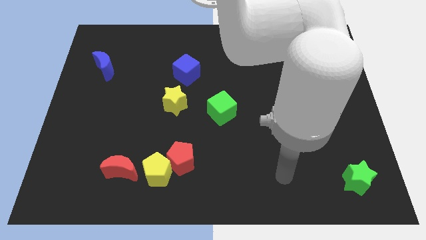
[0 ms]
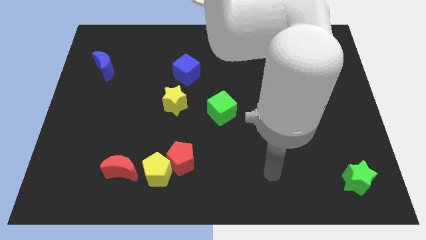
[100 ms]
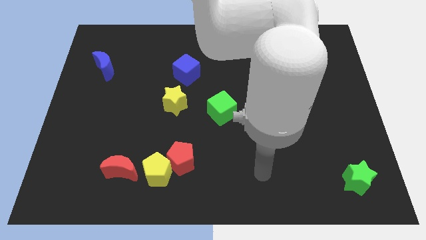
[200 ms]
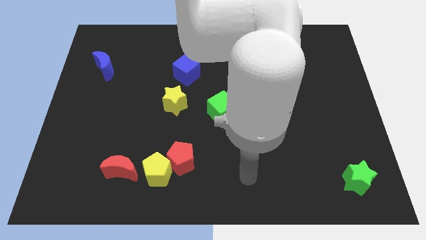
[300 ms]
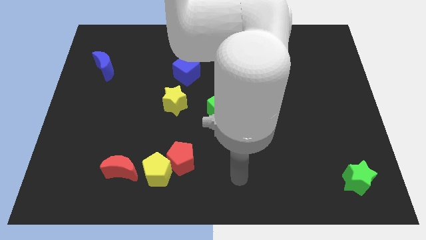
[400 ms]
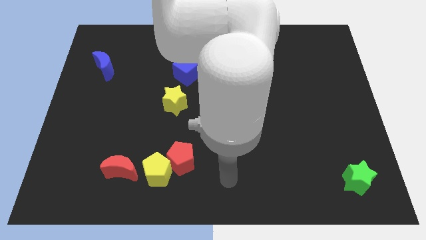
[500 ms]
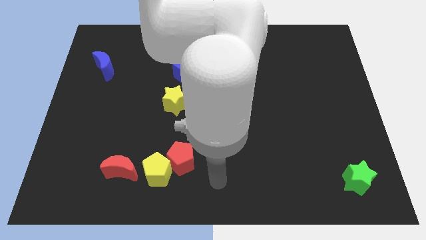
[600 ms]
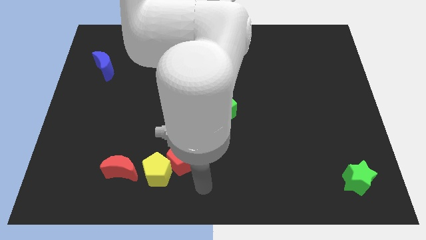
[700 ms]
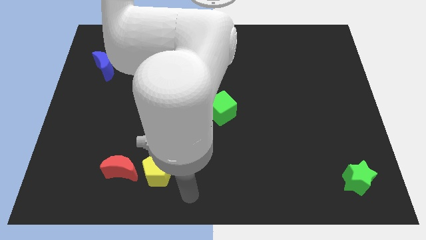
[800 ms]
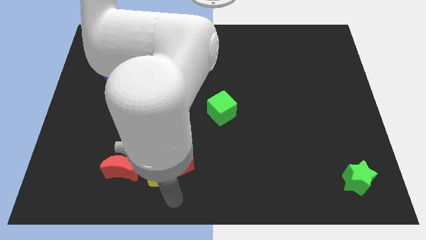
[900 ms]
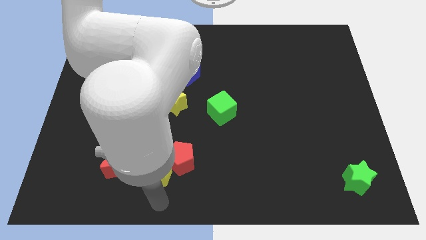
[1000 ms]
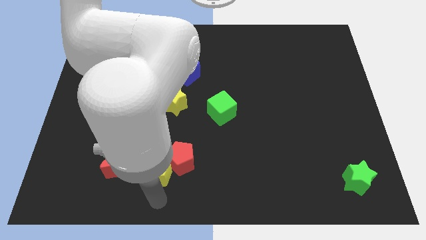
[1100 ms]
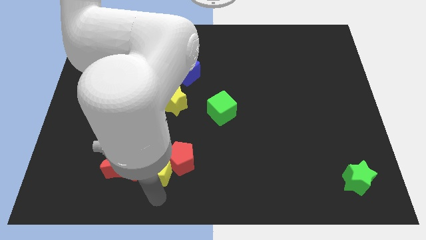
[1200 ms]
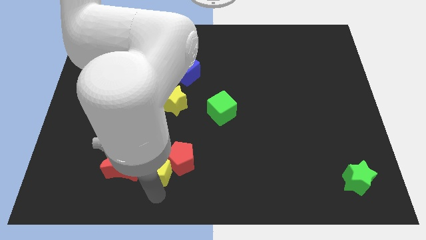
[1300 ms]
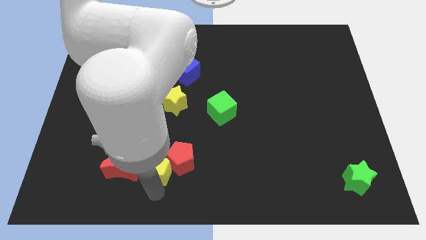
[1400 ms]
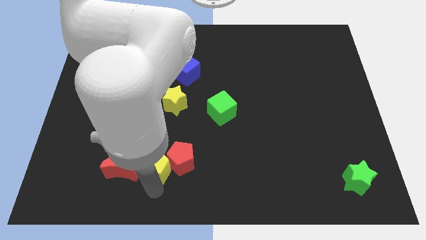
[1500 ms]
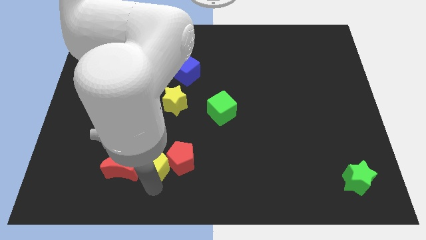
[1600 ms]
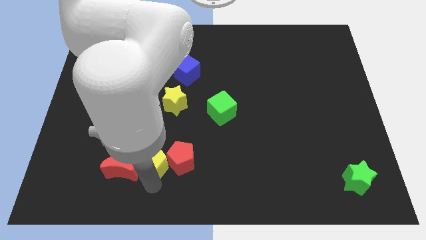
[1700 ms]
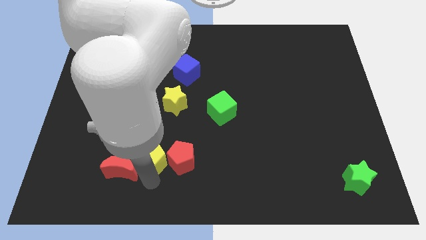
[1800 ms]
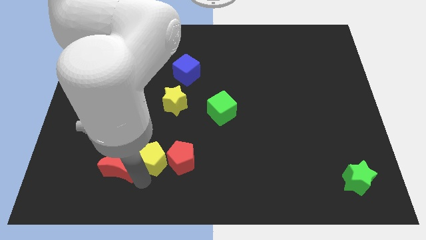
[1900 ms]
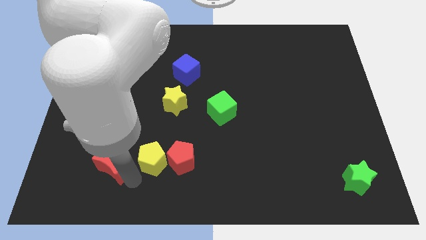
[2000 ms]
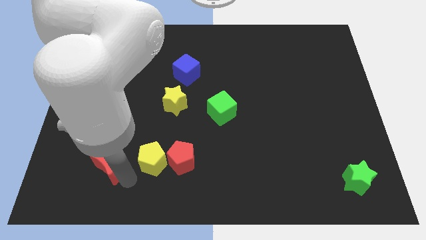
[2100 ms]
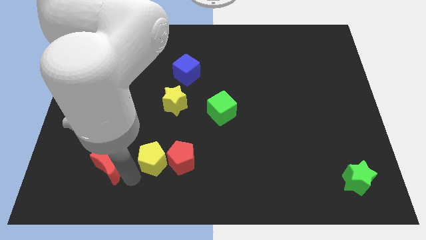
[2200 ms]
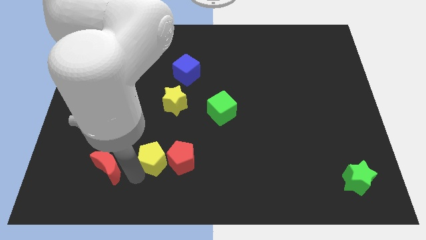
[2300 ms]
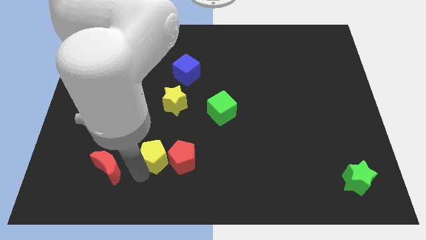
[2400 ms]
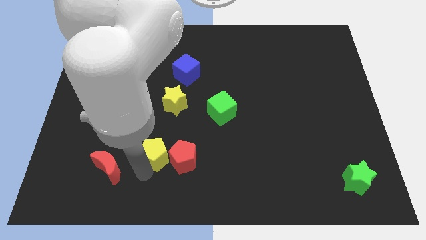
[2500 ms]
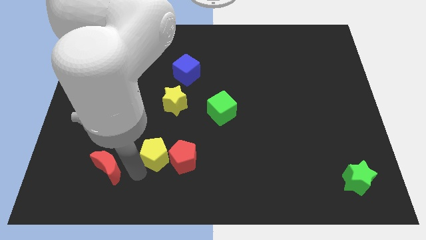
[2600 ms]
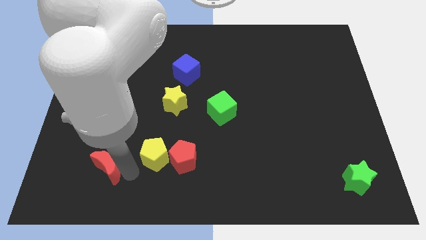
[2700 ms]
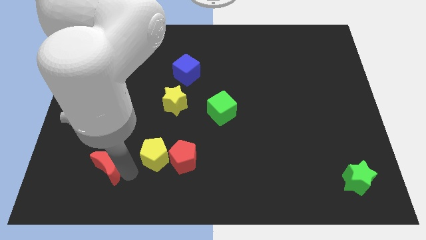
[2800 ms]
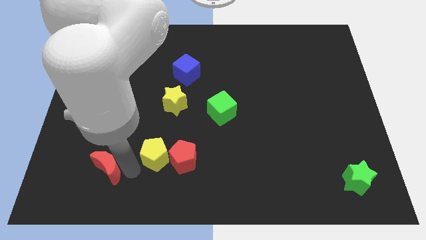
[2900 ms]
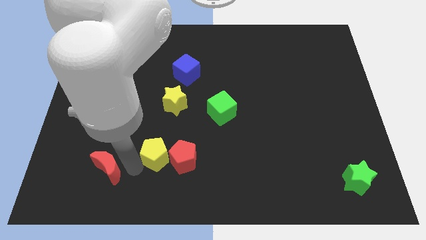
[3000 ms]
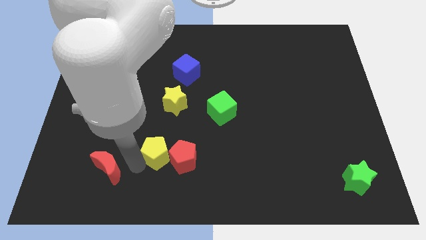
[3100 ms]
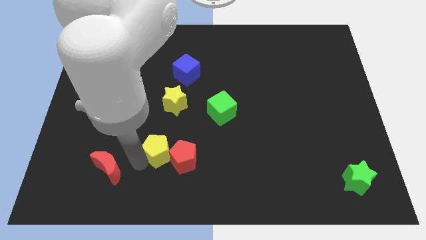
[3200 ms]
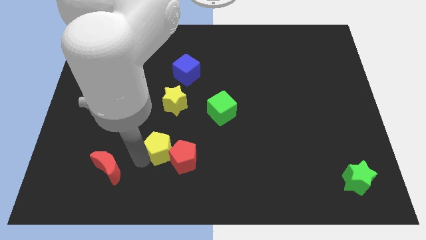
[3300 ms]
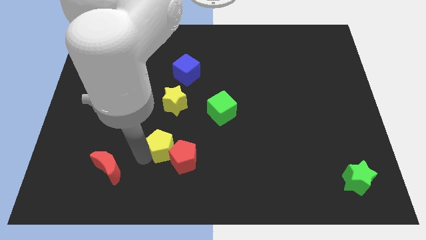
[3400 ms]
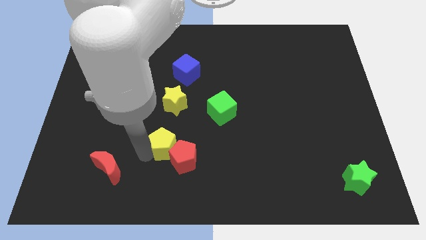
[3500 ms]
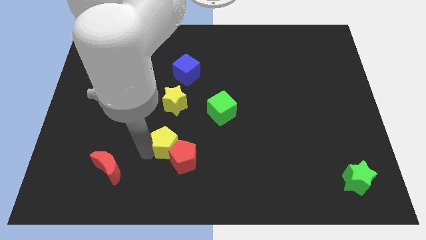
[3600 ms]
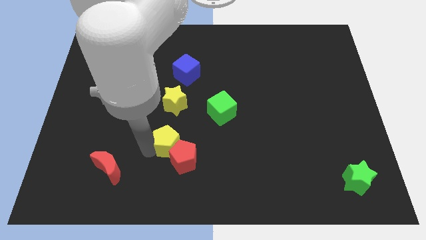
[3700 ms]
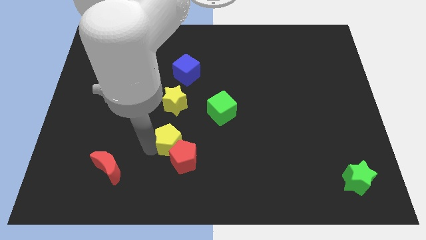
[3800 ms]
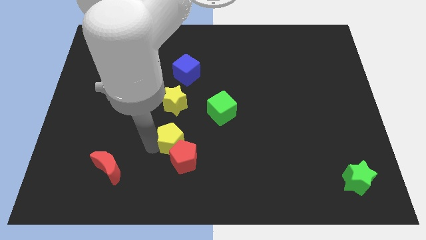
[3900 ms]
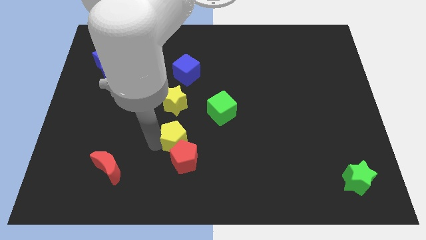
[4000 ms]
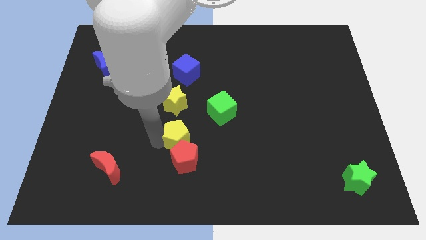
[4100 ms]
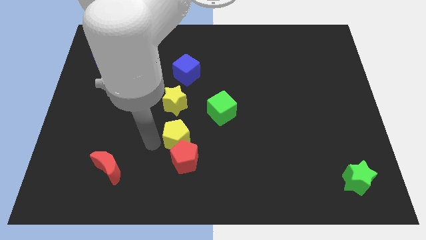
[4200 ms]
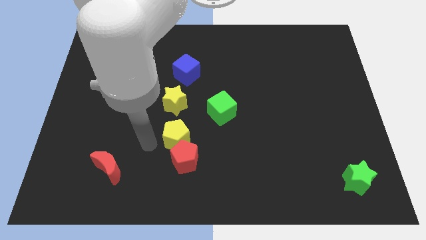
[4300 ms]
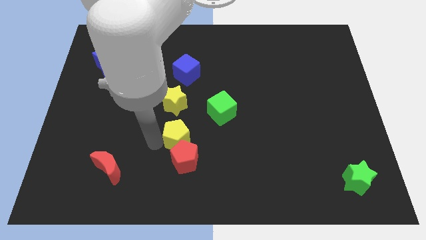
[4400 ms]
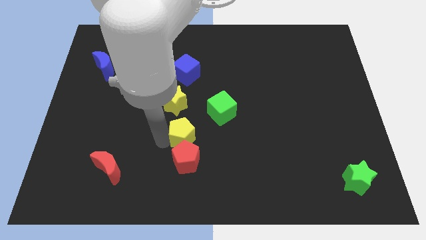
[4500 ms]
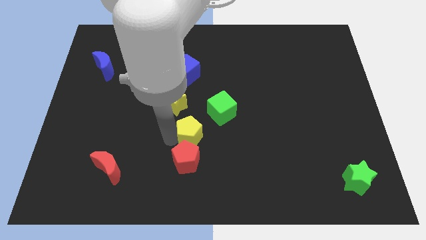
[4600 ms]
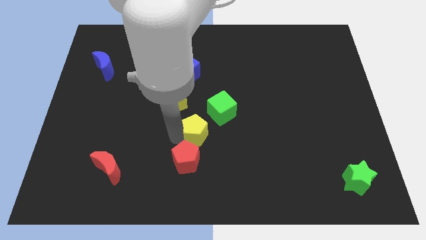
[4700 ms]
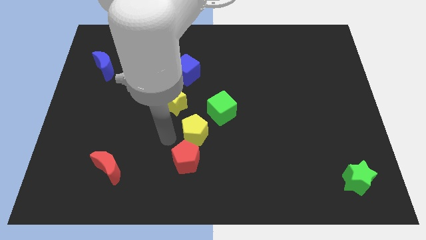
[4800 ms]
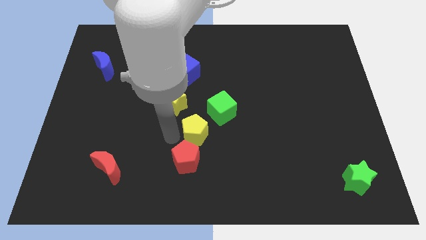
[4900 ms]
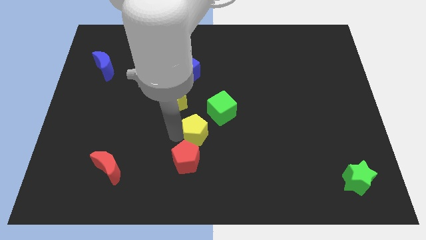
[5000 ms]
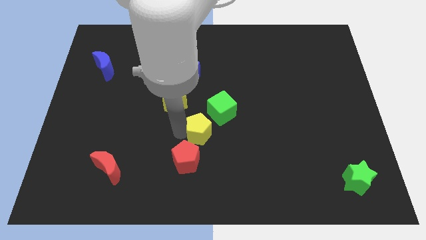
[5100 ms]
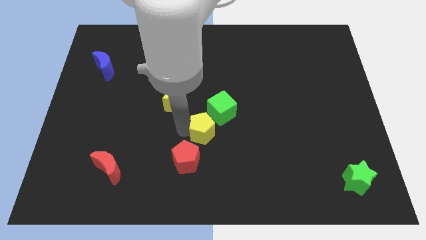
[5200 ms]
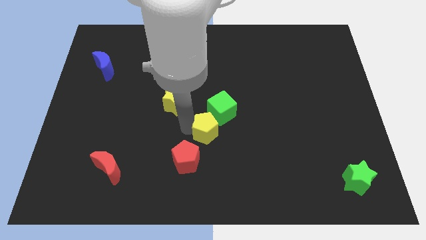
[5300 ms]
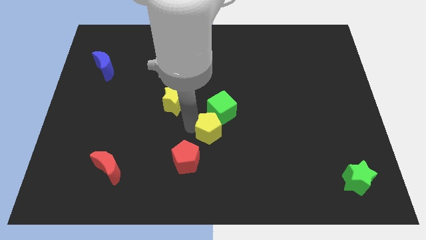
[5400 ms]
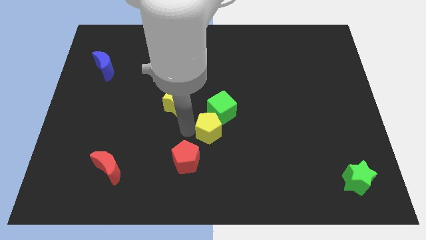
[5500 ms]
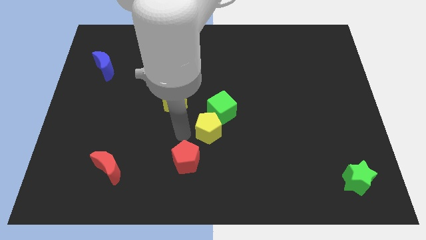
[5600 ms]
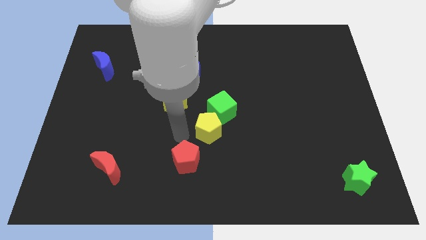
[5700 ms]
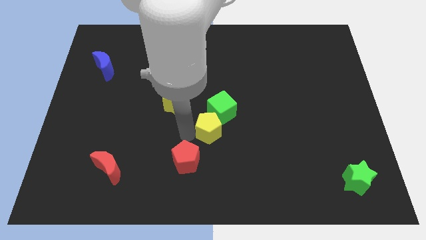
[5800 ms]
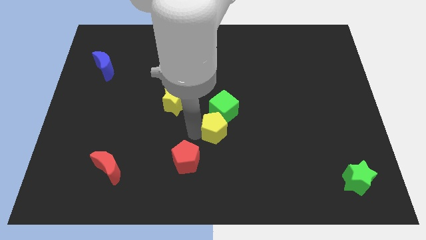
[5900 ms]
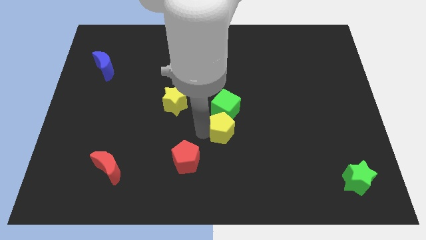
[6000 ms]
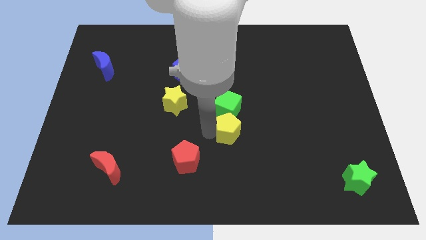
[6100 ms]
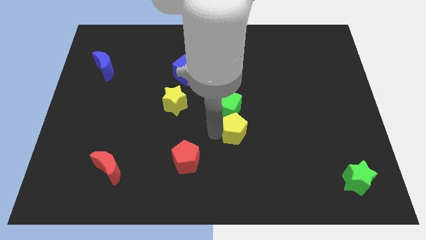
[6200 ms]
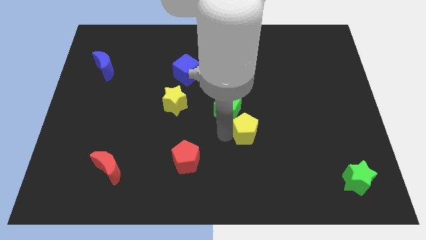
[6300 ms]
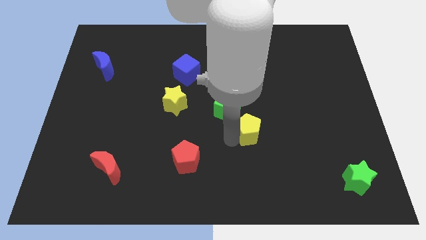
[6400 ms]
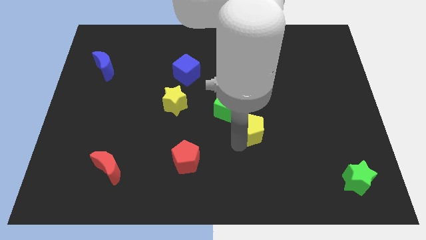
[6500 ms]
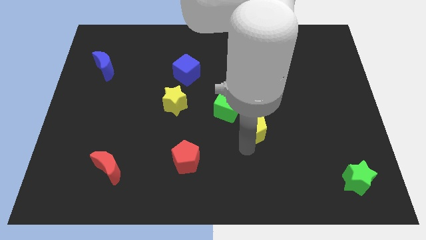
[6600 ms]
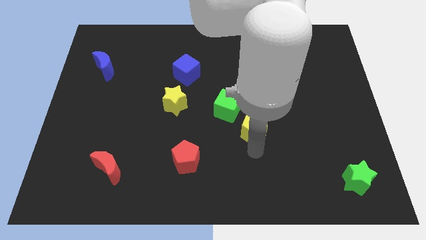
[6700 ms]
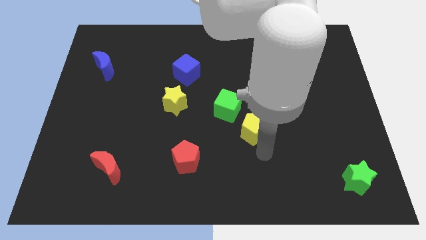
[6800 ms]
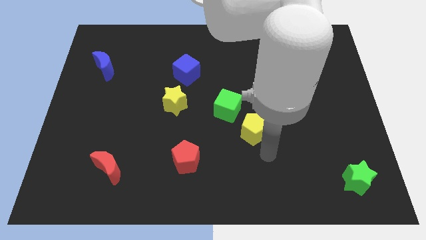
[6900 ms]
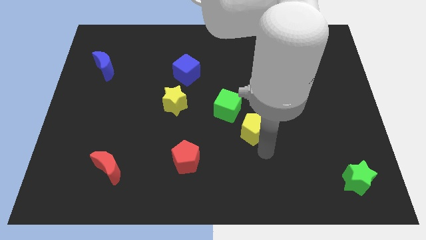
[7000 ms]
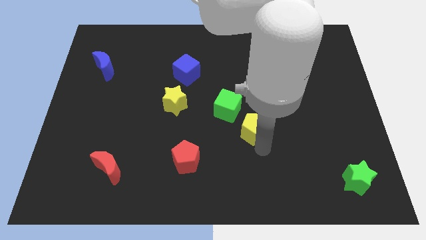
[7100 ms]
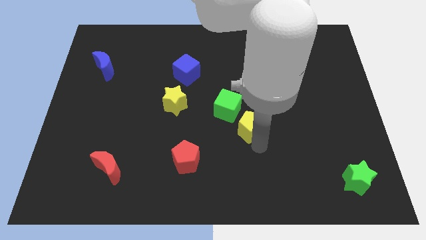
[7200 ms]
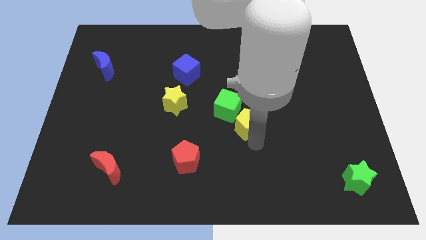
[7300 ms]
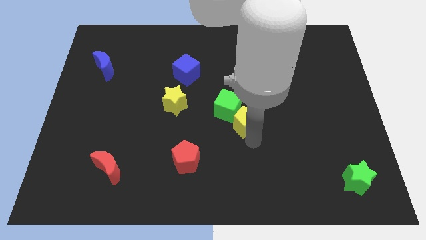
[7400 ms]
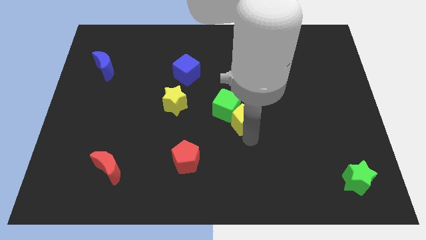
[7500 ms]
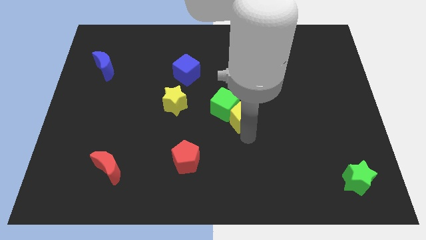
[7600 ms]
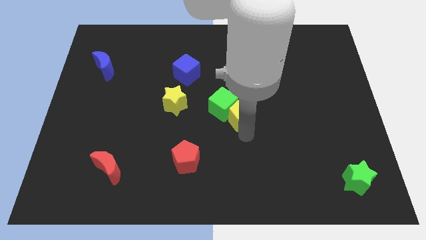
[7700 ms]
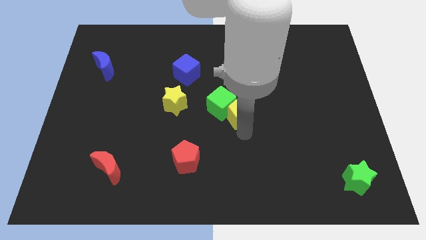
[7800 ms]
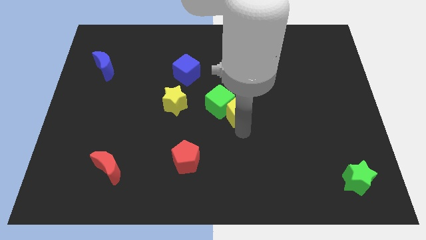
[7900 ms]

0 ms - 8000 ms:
slide the yellow pentagon to the right of the yellow star
